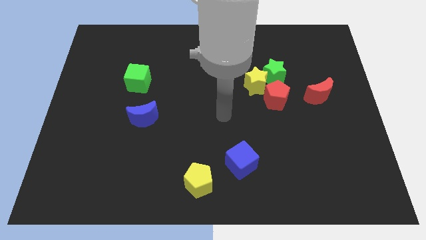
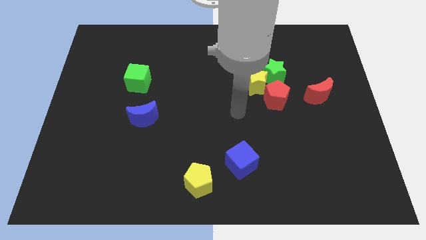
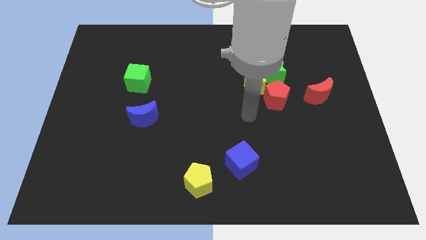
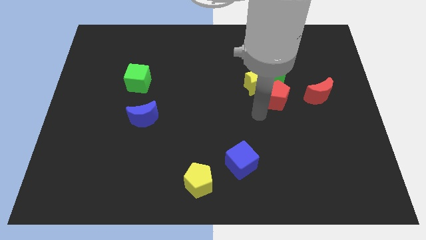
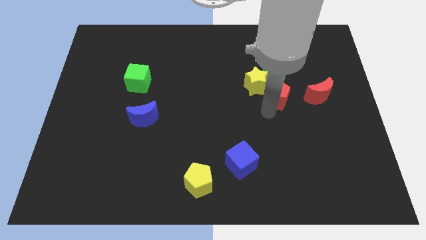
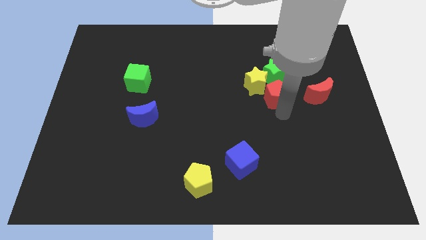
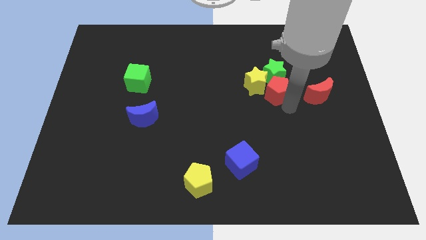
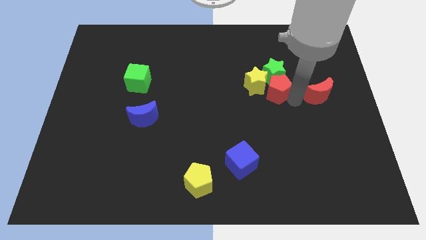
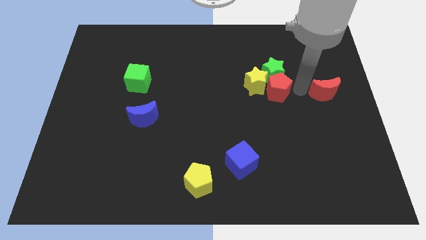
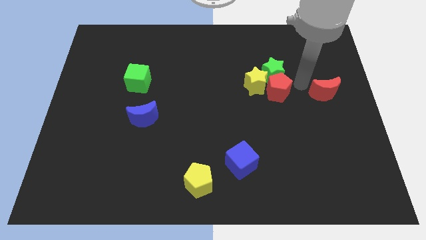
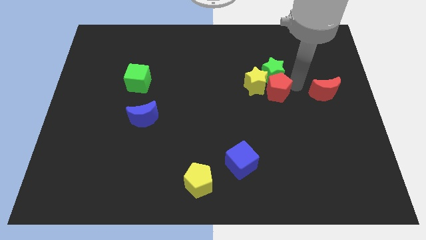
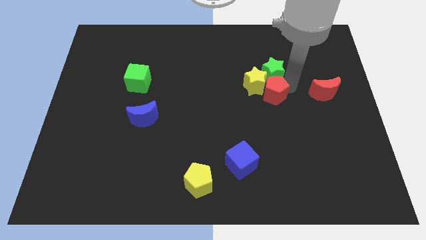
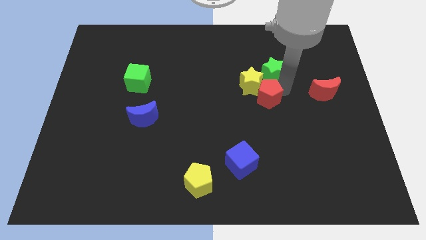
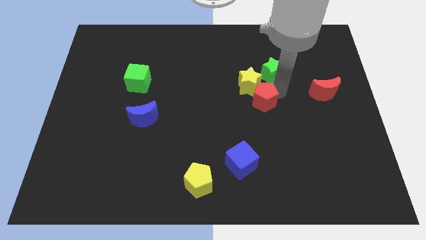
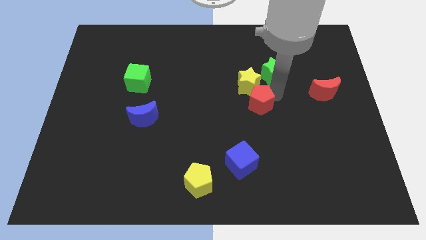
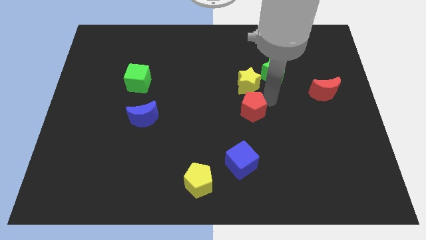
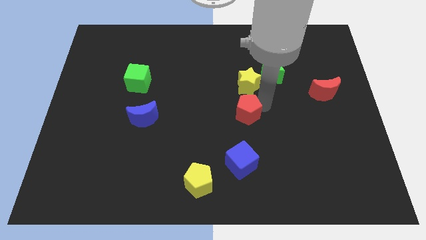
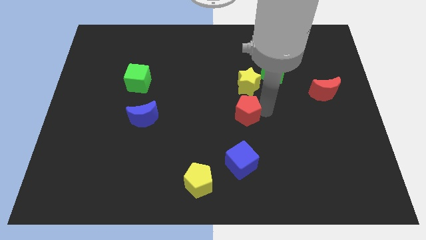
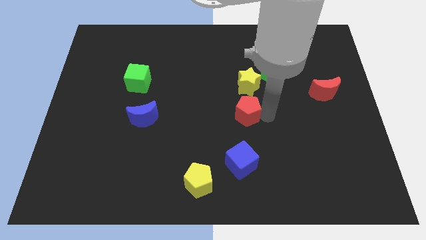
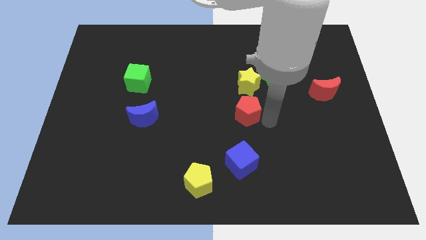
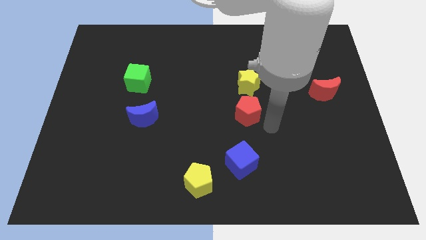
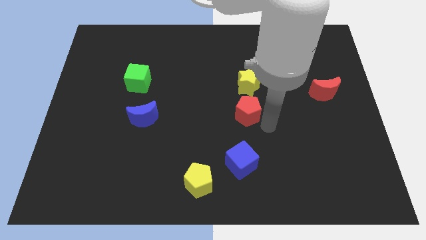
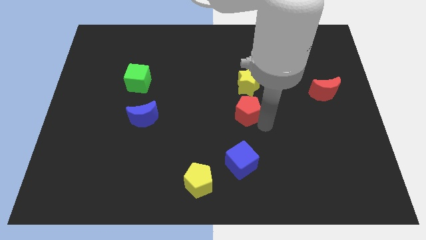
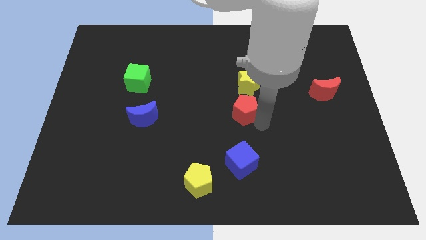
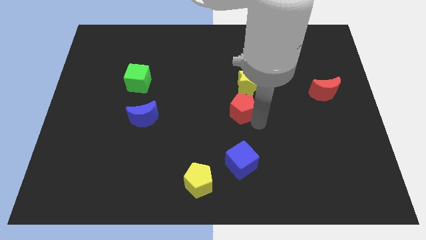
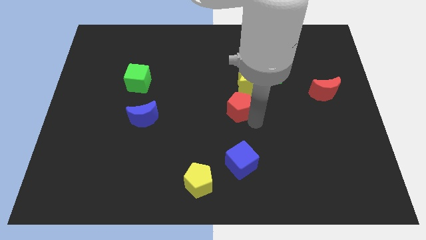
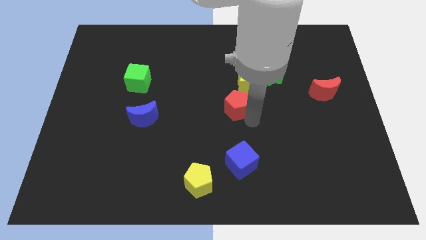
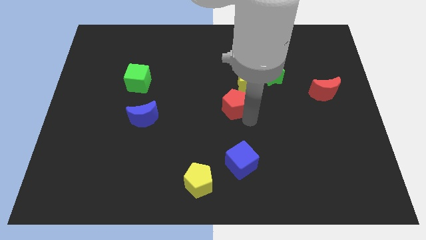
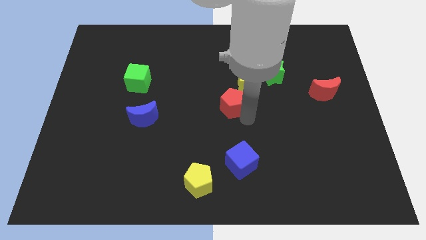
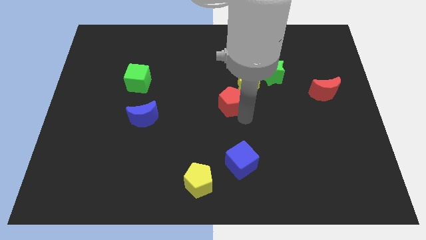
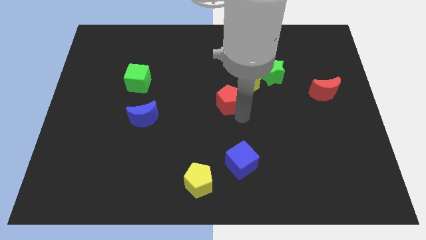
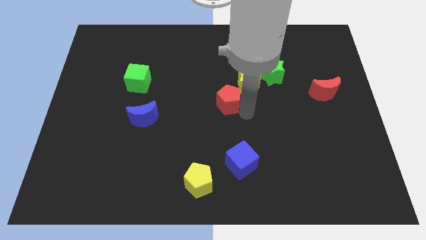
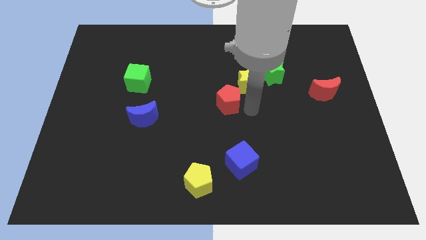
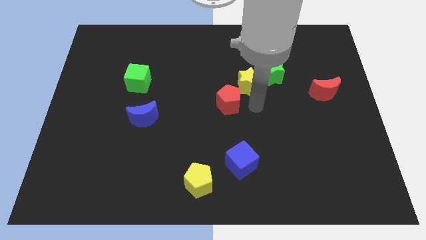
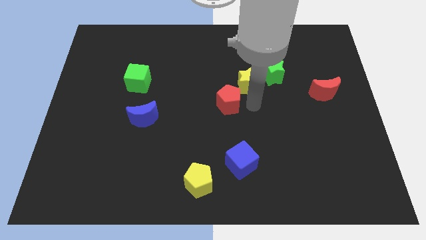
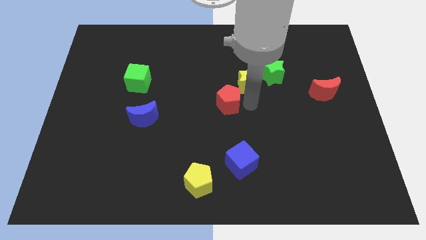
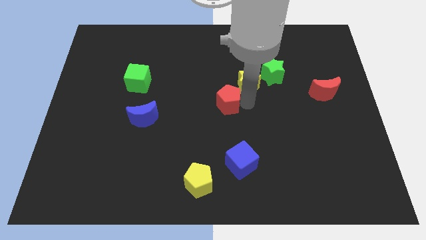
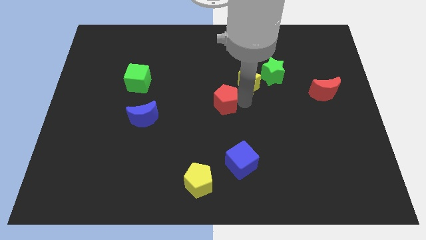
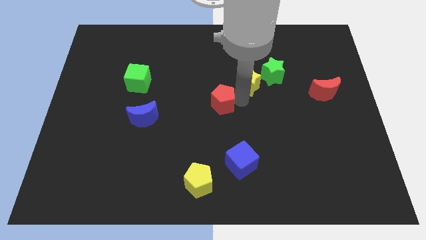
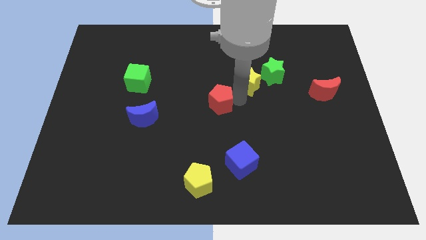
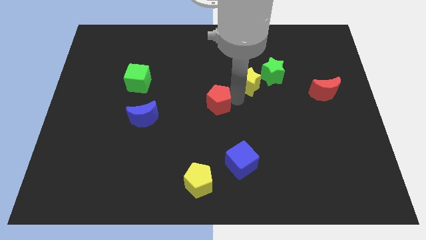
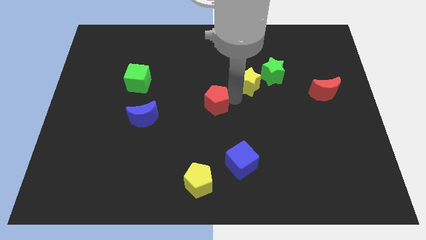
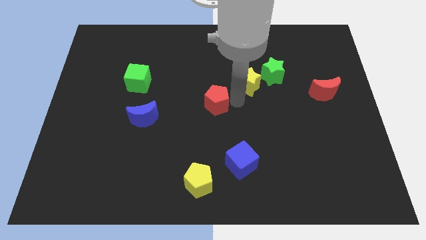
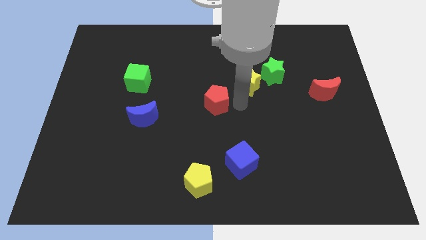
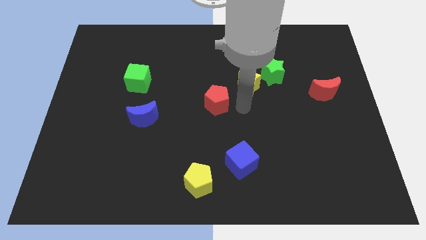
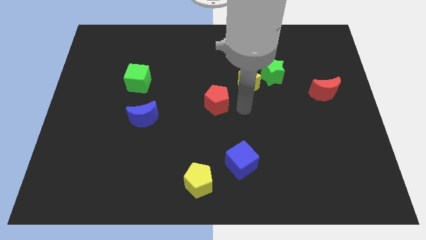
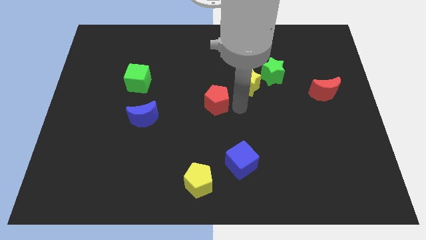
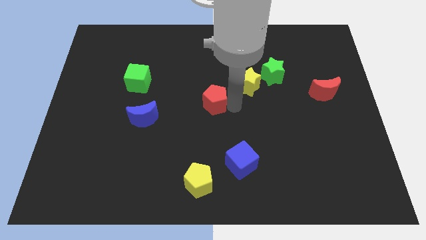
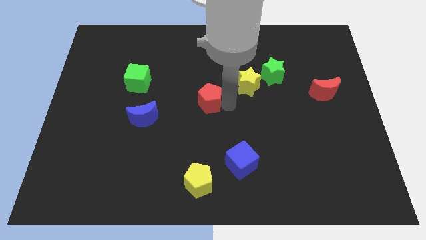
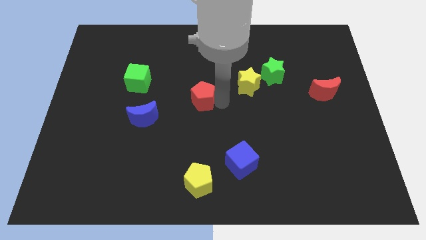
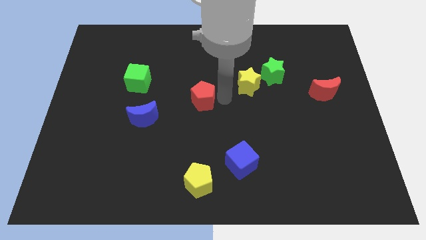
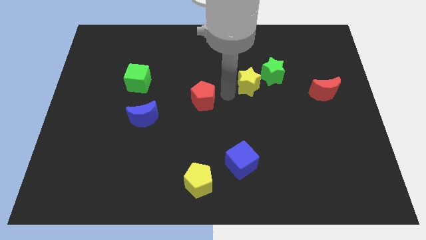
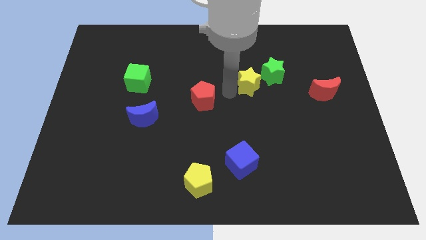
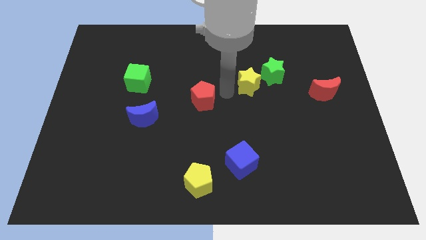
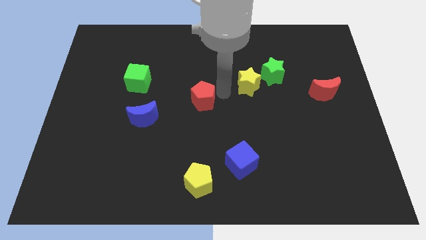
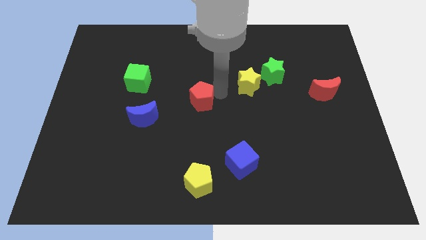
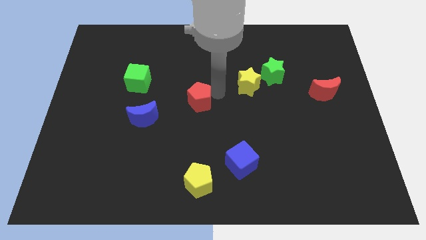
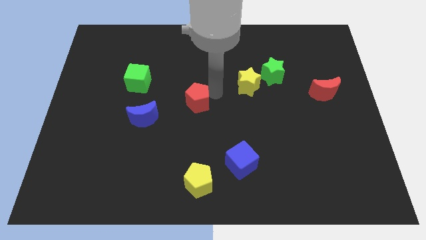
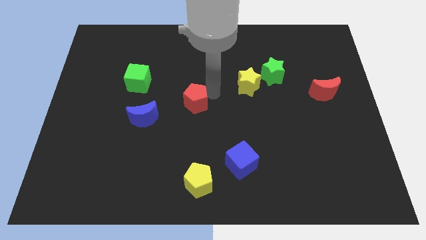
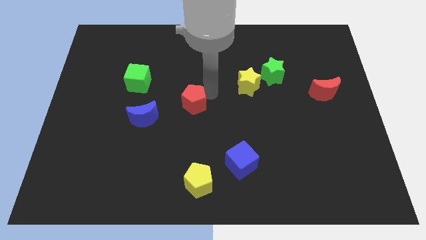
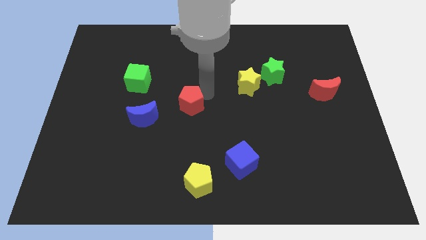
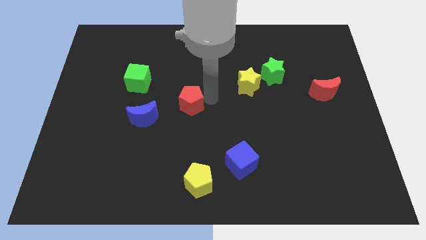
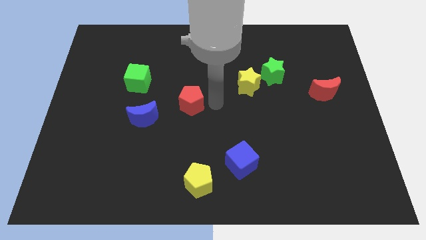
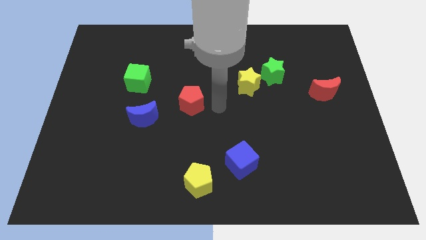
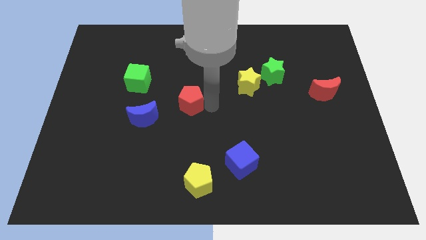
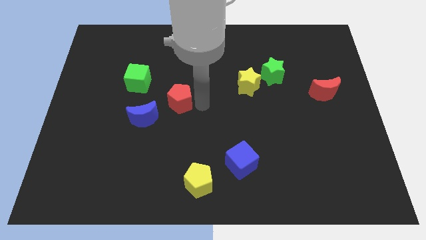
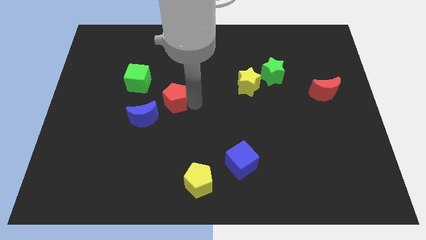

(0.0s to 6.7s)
put the red pentagon diagonally down and to the right of the green cube

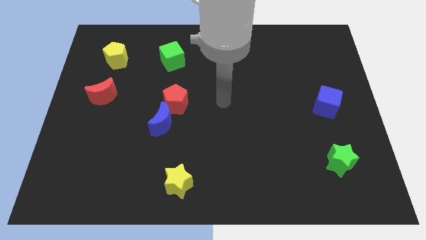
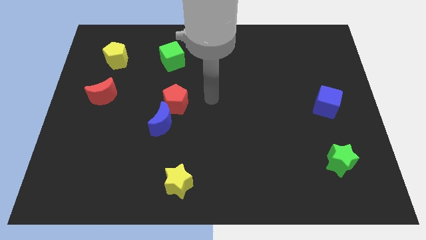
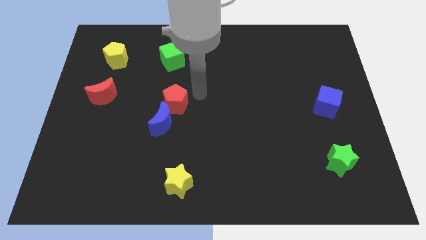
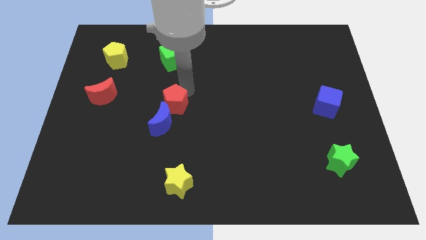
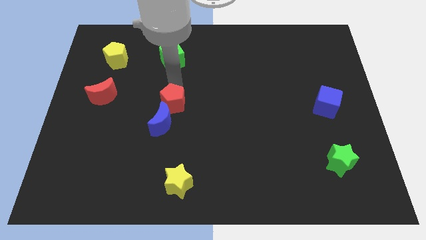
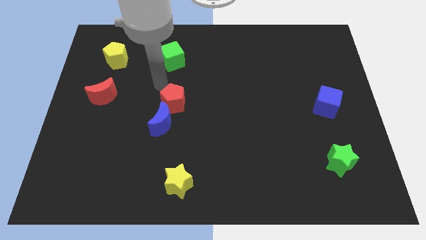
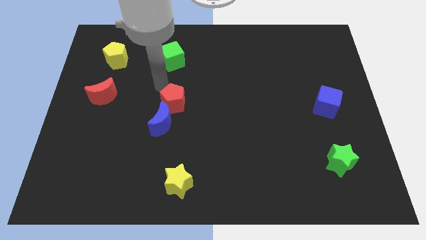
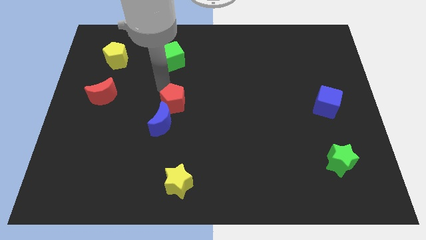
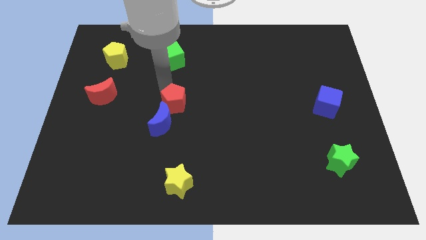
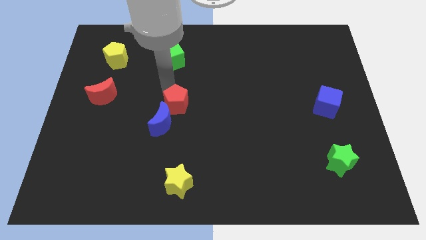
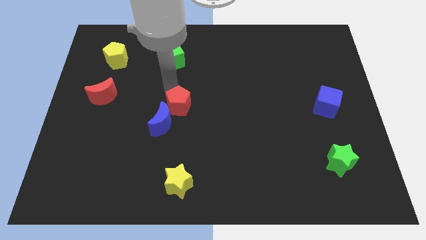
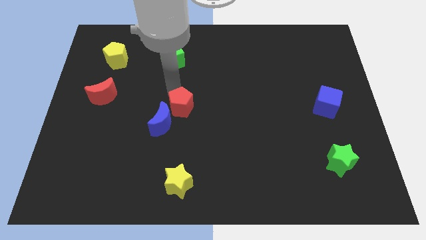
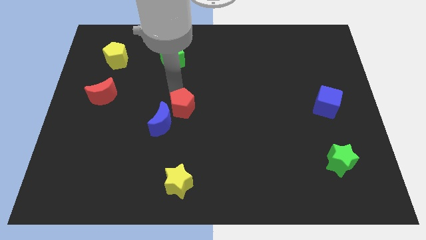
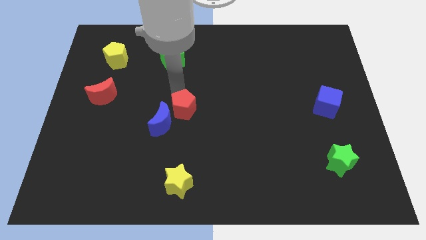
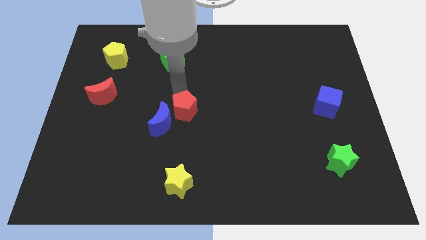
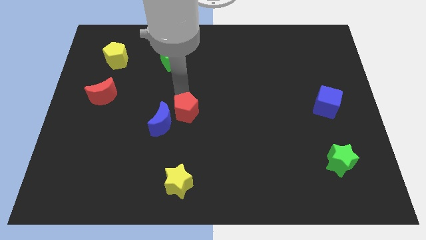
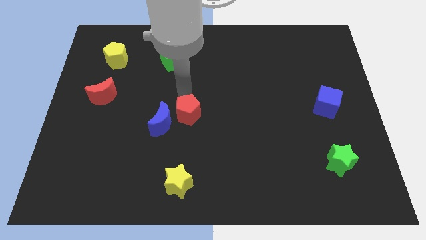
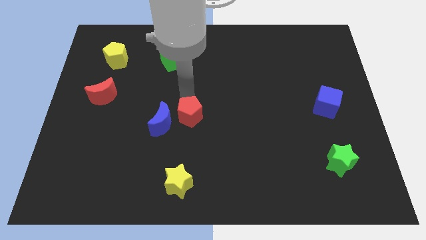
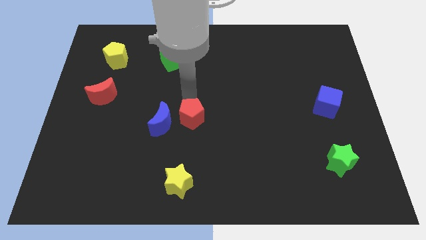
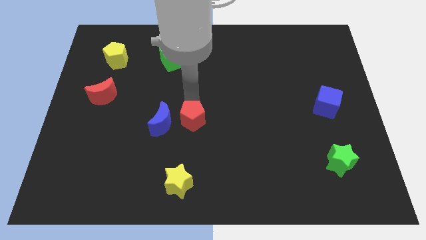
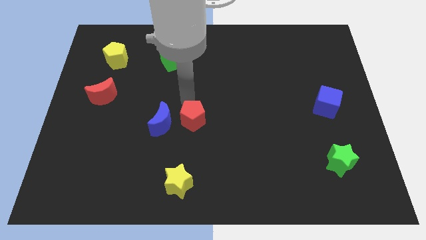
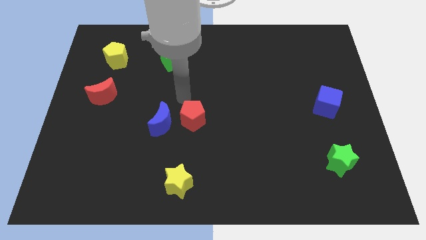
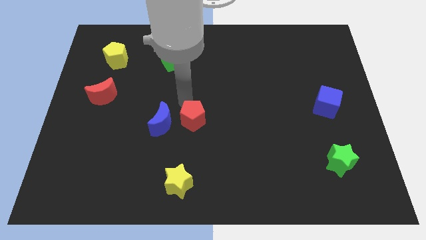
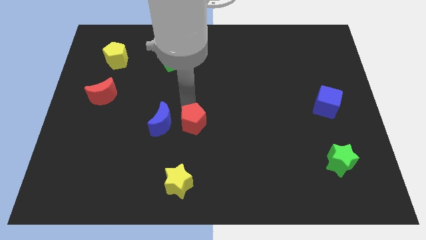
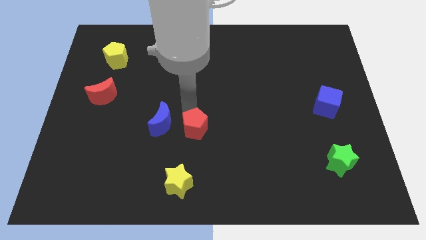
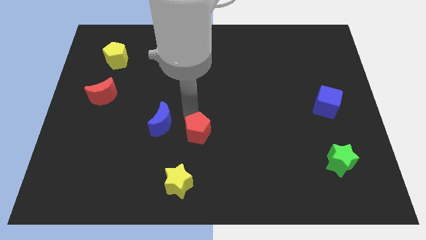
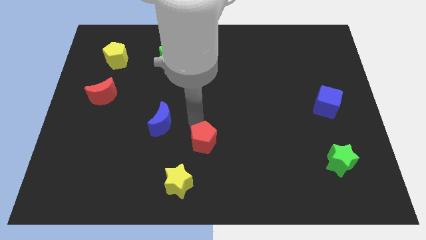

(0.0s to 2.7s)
slide the red pentagon to the top right side of the yellow star
